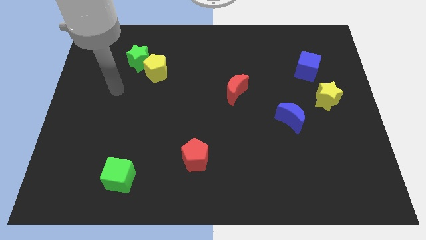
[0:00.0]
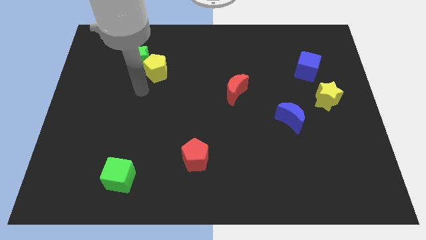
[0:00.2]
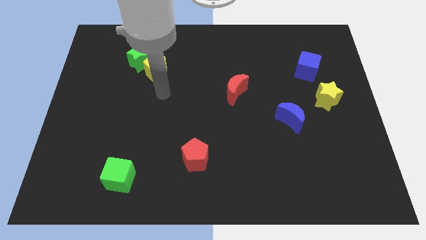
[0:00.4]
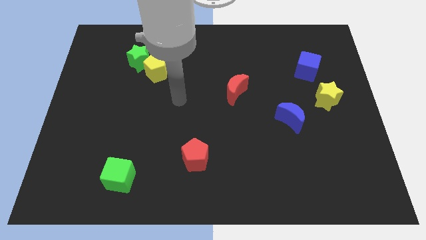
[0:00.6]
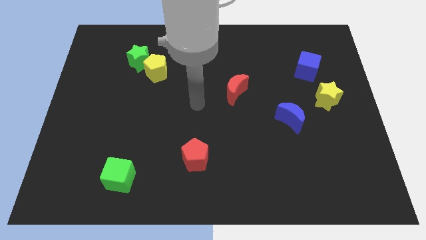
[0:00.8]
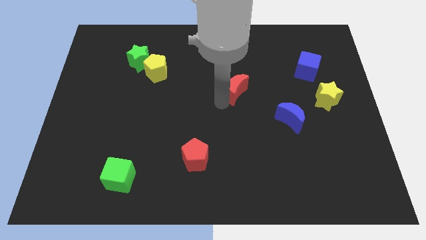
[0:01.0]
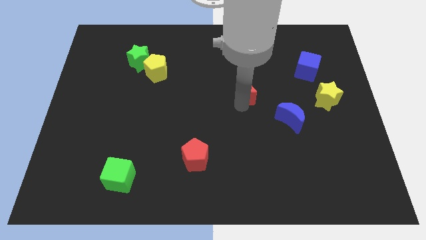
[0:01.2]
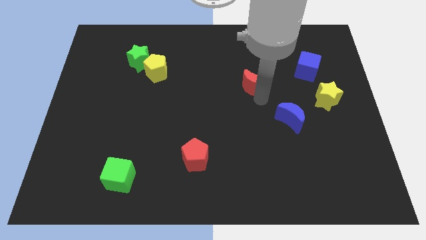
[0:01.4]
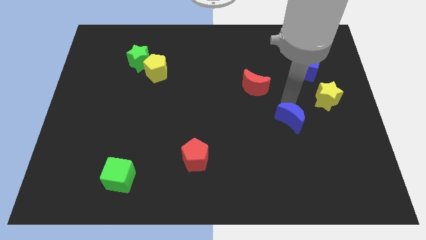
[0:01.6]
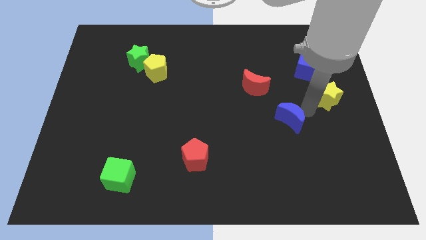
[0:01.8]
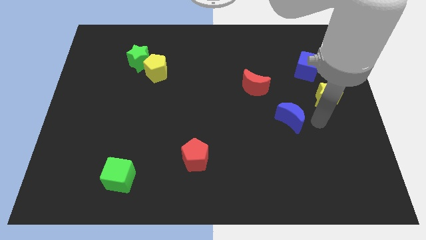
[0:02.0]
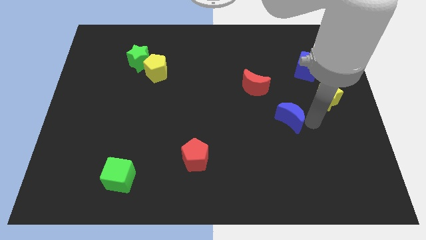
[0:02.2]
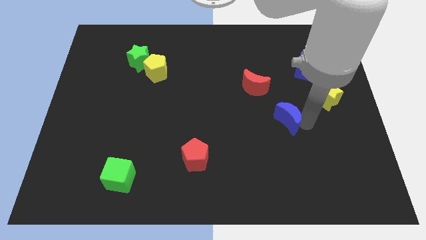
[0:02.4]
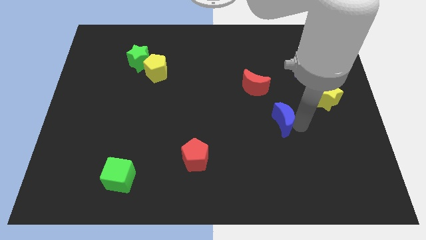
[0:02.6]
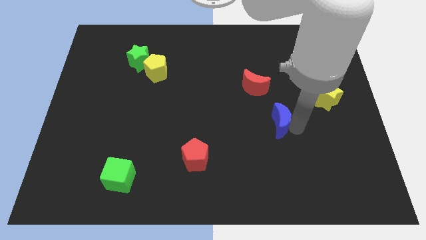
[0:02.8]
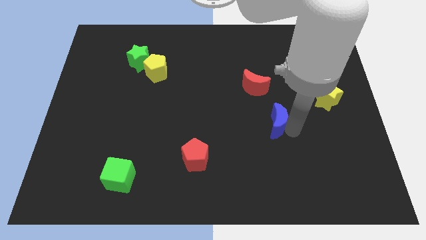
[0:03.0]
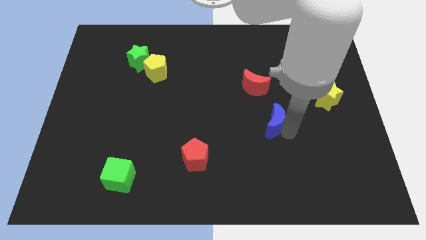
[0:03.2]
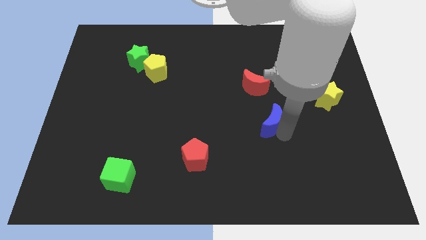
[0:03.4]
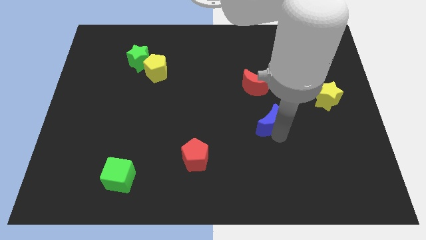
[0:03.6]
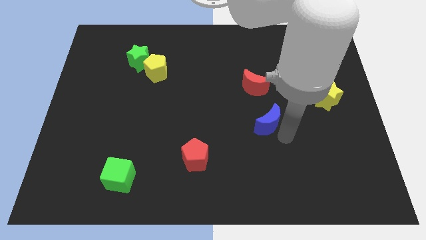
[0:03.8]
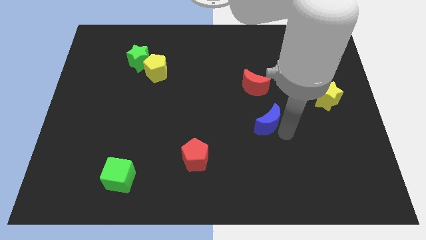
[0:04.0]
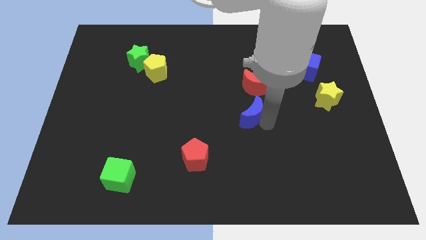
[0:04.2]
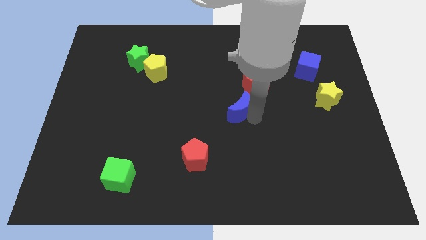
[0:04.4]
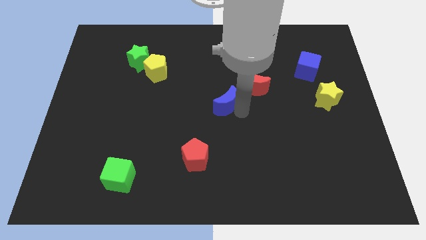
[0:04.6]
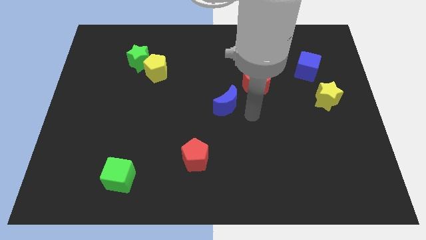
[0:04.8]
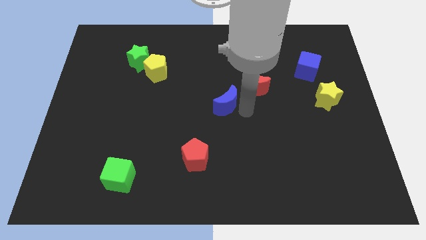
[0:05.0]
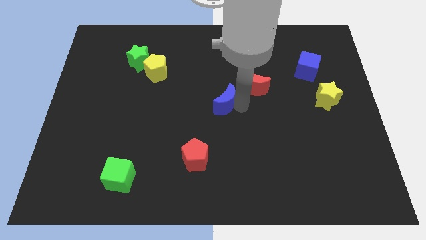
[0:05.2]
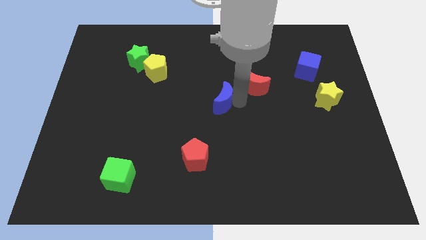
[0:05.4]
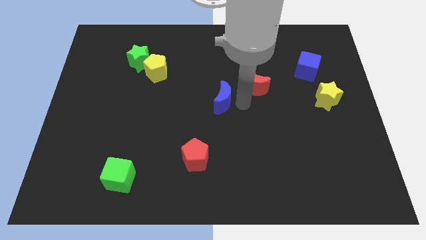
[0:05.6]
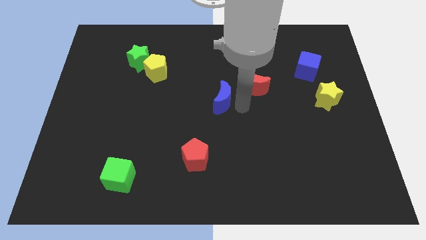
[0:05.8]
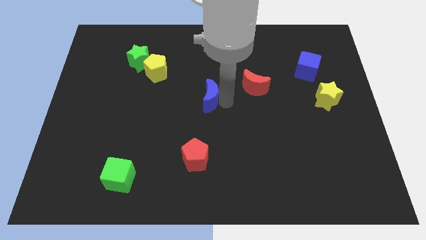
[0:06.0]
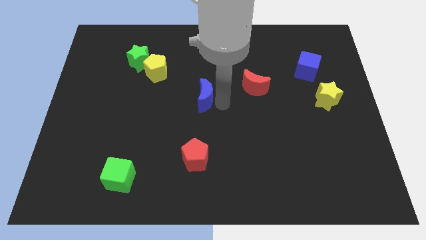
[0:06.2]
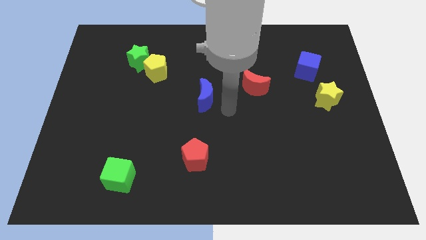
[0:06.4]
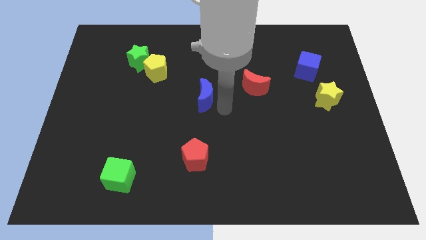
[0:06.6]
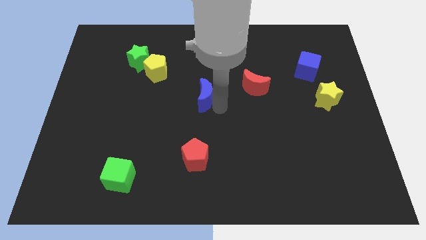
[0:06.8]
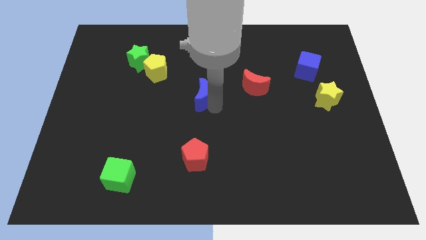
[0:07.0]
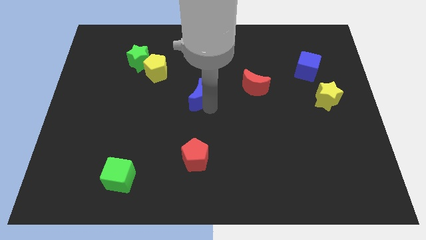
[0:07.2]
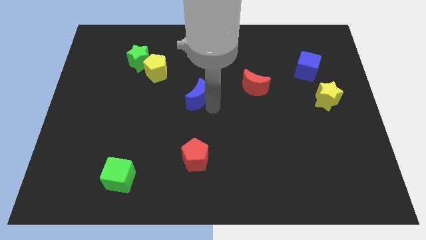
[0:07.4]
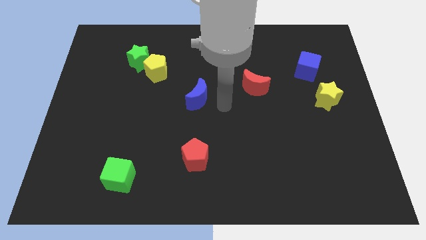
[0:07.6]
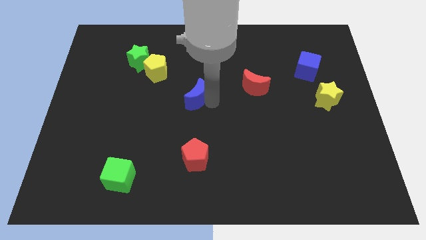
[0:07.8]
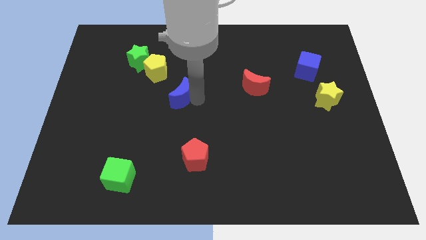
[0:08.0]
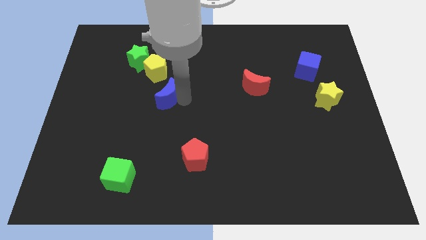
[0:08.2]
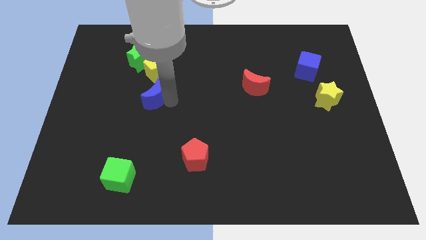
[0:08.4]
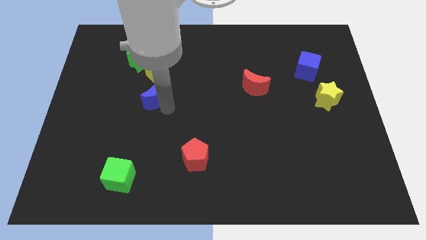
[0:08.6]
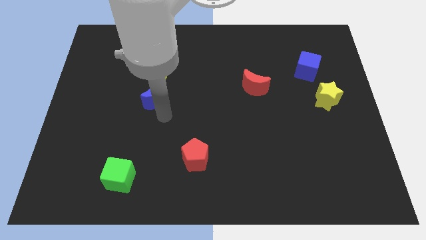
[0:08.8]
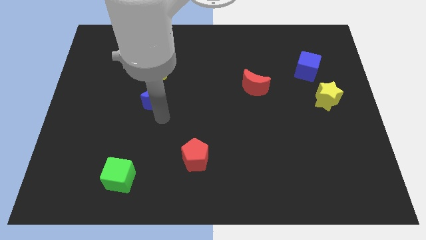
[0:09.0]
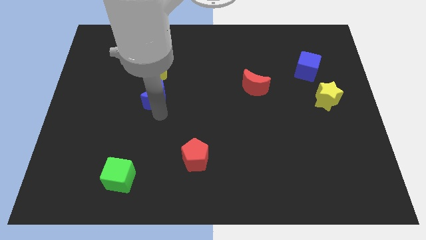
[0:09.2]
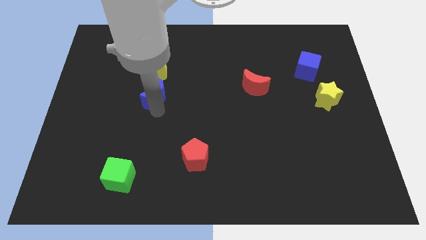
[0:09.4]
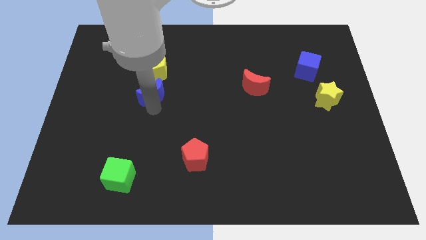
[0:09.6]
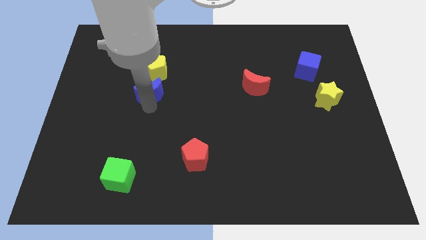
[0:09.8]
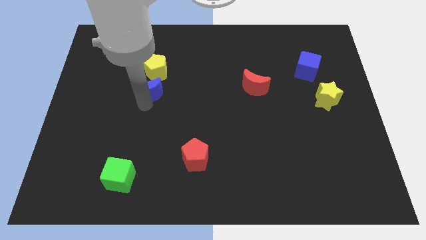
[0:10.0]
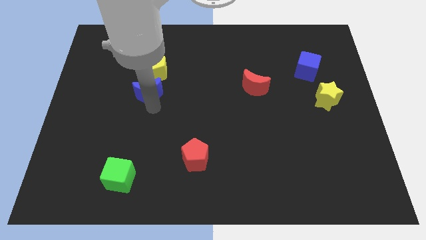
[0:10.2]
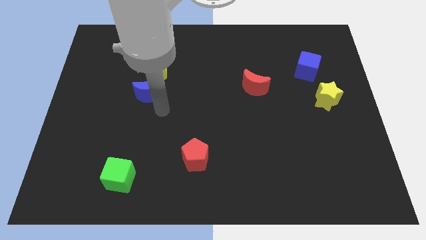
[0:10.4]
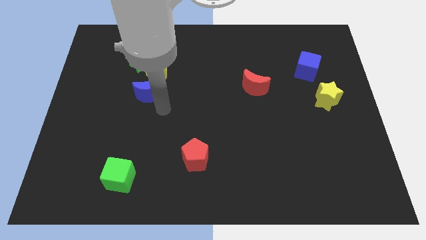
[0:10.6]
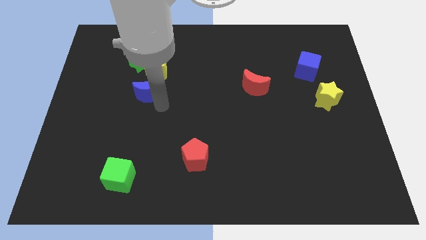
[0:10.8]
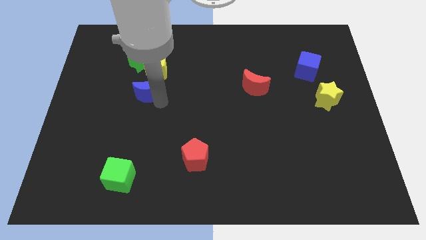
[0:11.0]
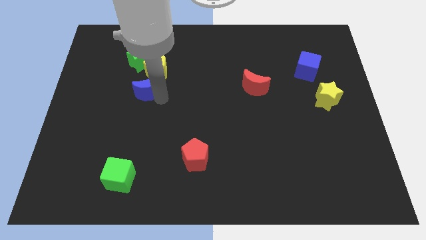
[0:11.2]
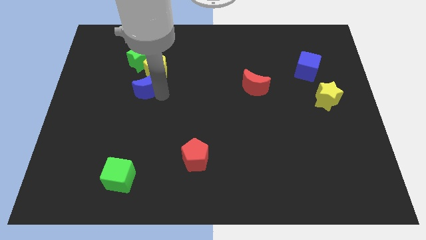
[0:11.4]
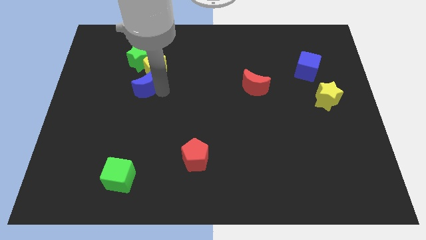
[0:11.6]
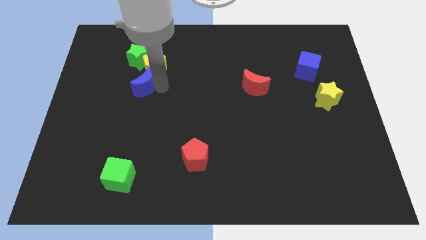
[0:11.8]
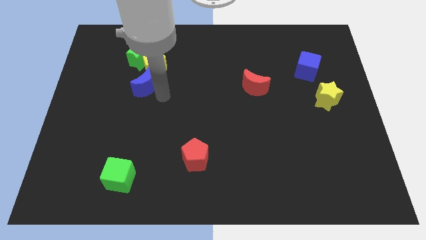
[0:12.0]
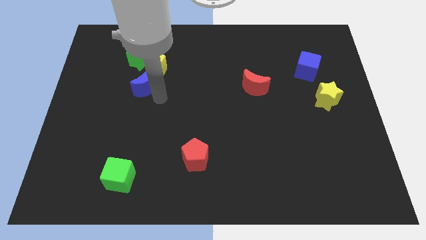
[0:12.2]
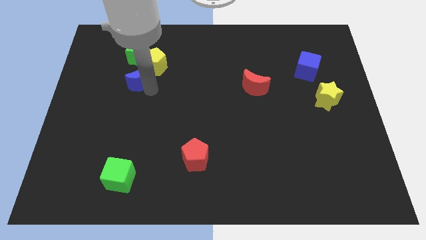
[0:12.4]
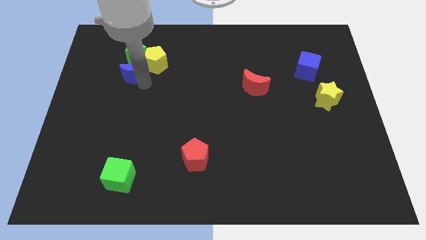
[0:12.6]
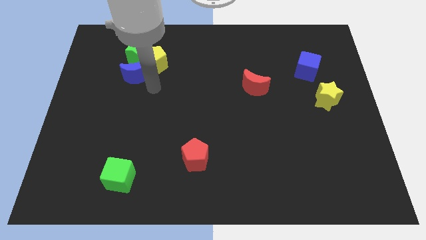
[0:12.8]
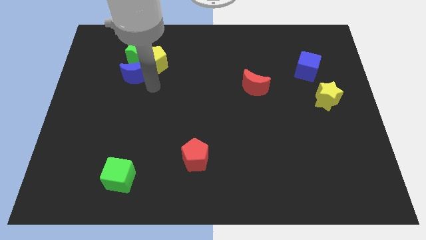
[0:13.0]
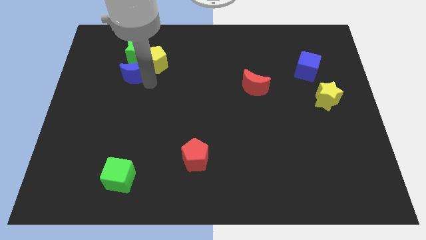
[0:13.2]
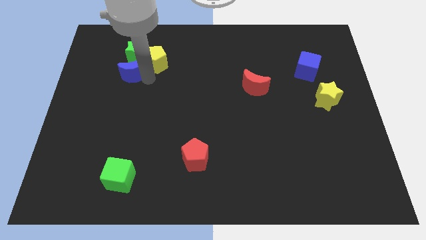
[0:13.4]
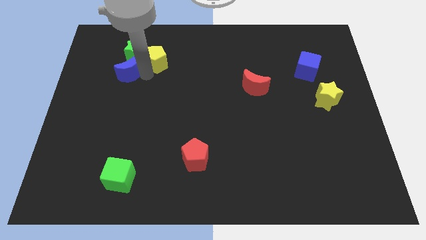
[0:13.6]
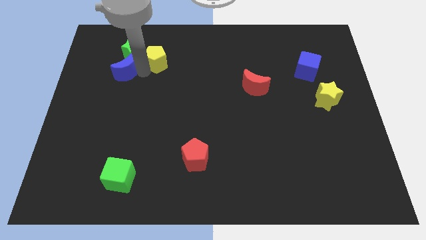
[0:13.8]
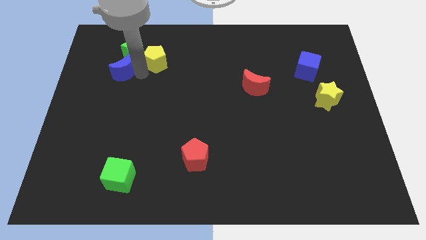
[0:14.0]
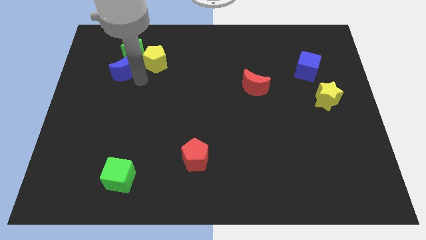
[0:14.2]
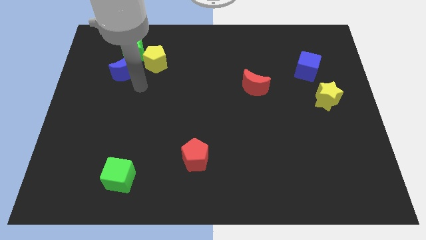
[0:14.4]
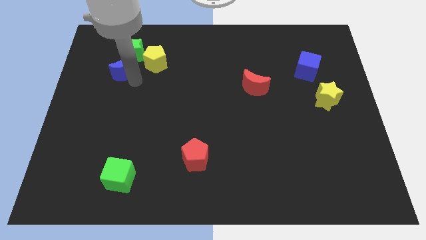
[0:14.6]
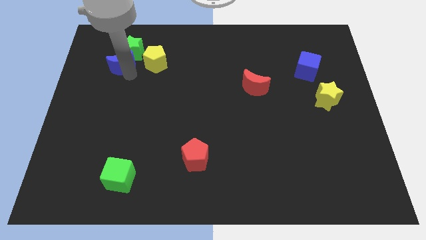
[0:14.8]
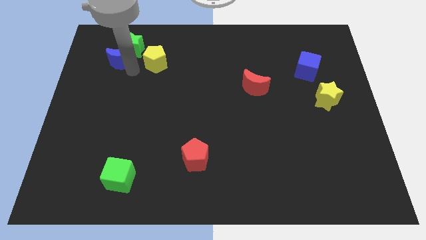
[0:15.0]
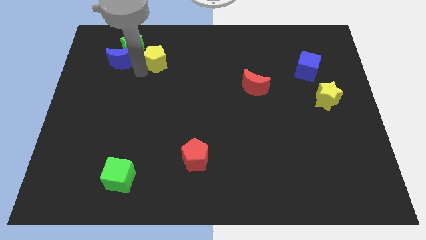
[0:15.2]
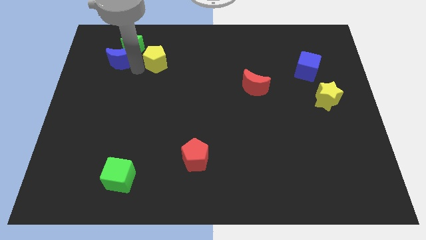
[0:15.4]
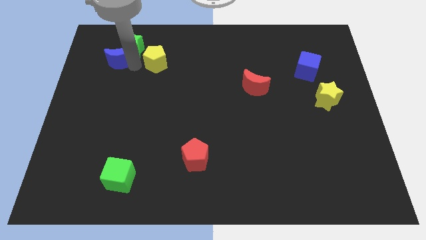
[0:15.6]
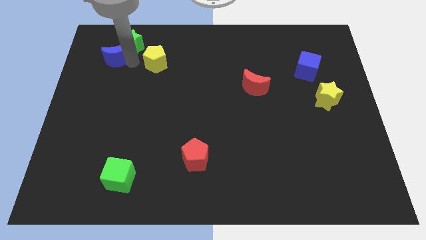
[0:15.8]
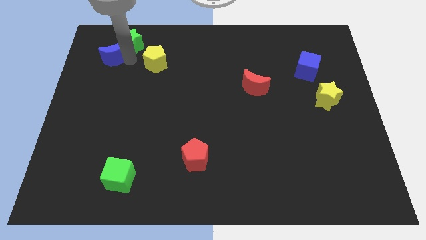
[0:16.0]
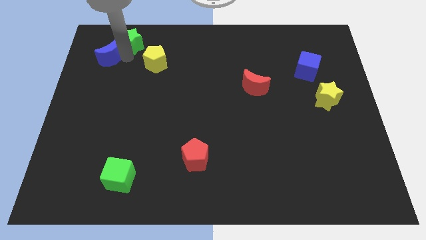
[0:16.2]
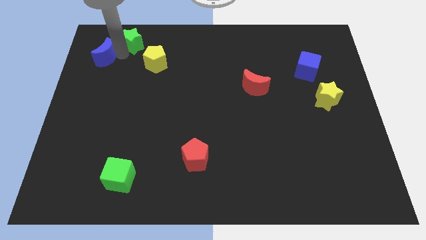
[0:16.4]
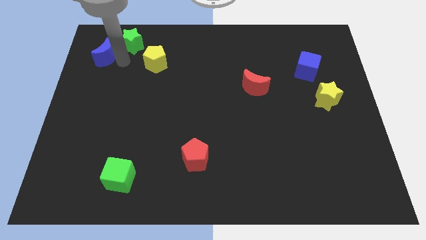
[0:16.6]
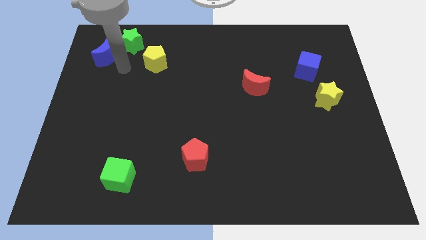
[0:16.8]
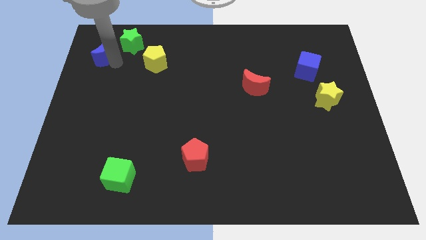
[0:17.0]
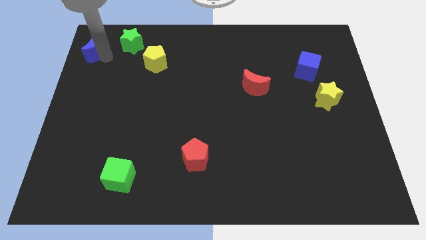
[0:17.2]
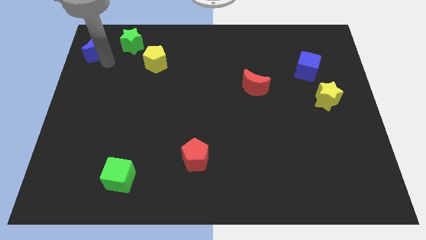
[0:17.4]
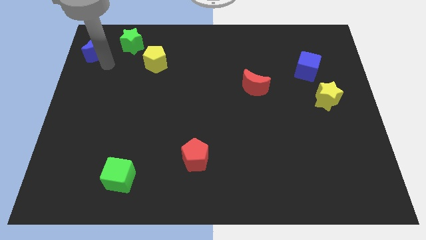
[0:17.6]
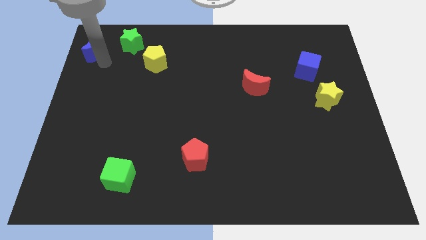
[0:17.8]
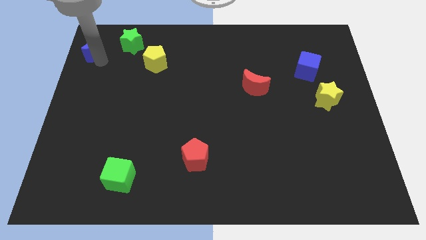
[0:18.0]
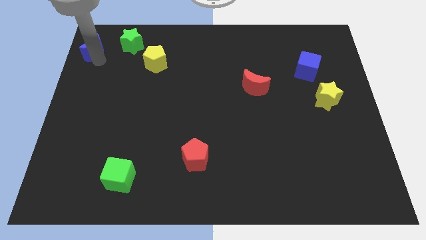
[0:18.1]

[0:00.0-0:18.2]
push the blue moon to the top left
